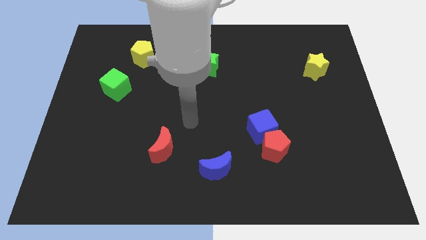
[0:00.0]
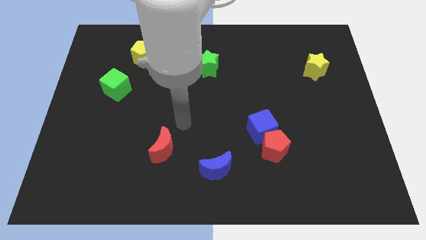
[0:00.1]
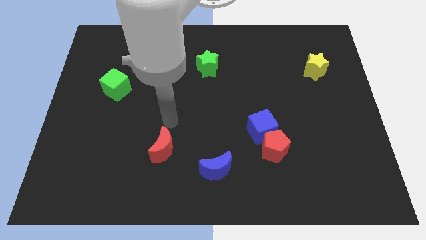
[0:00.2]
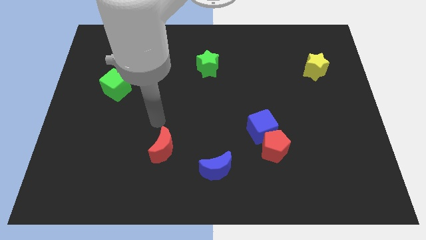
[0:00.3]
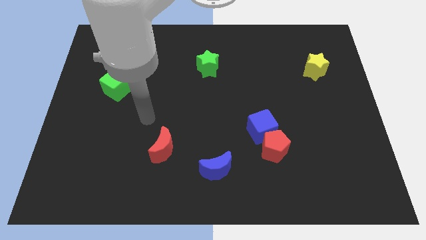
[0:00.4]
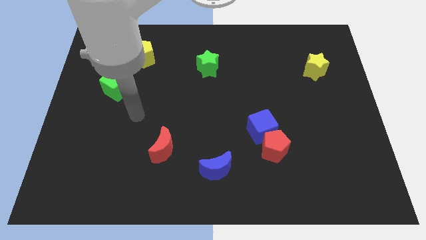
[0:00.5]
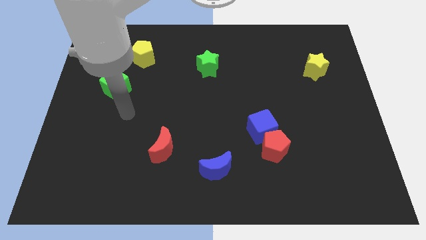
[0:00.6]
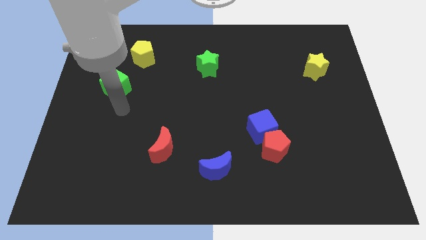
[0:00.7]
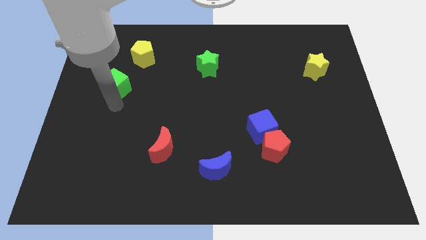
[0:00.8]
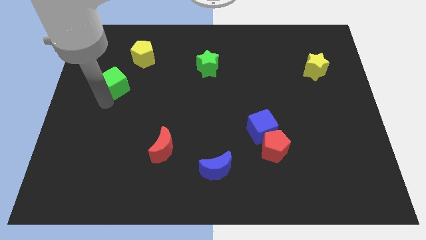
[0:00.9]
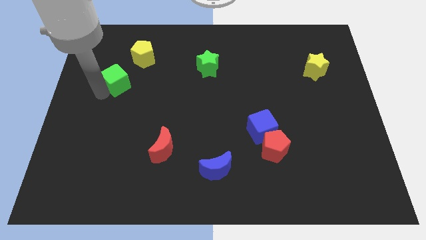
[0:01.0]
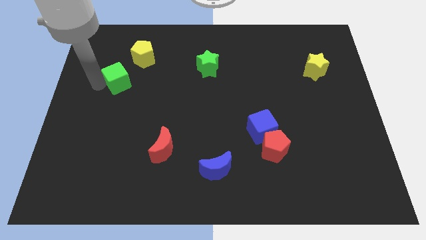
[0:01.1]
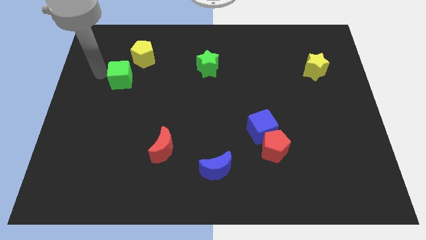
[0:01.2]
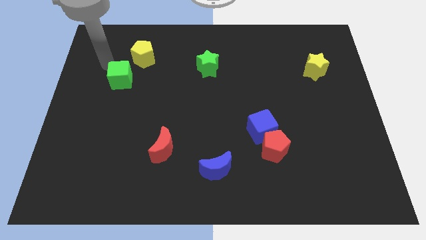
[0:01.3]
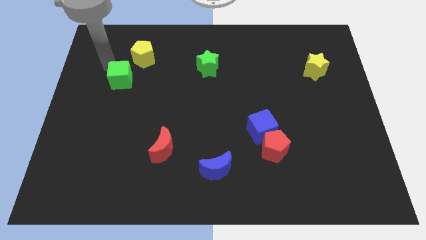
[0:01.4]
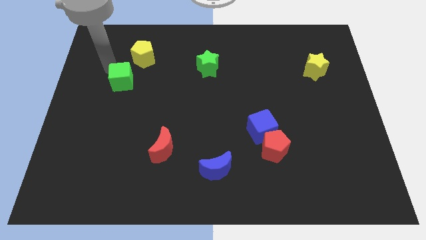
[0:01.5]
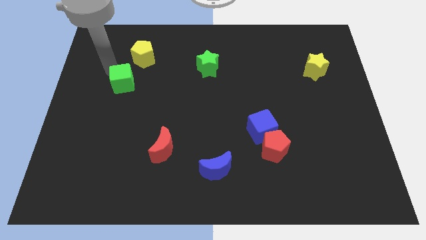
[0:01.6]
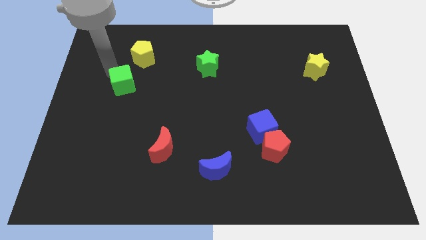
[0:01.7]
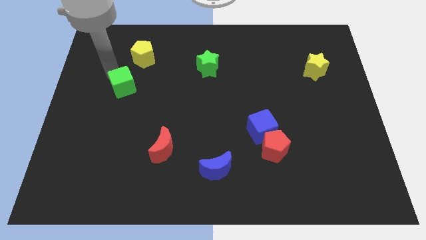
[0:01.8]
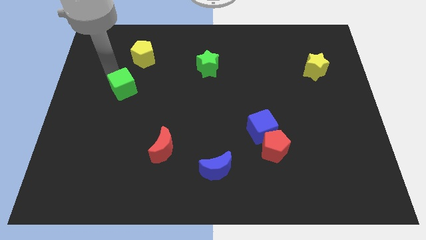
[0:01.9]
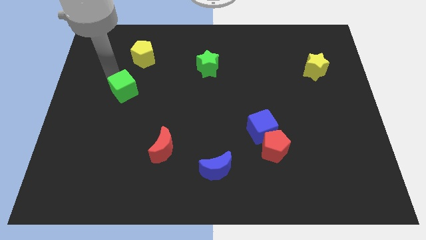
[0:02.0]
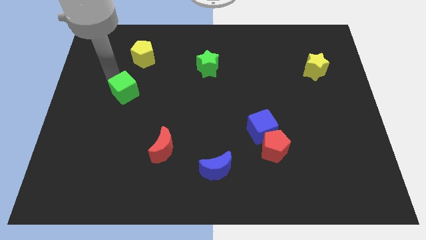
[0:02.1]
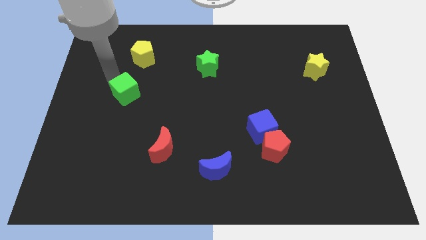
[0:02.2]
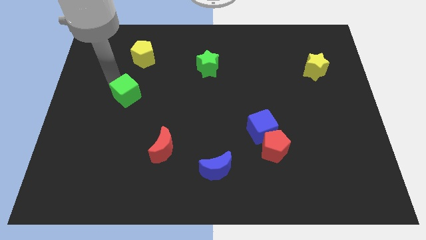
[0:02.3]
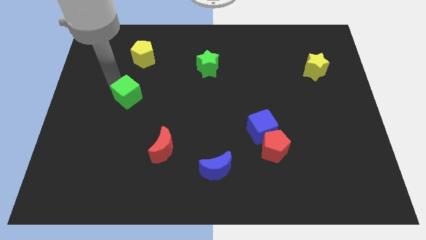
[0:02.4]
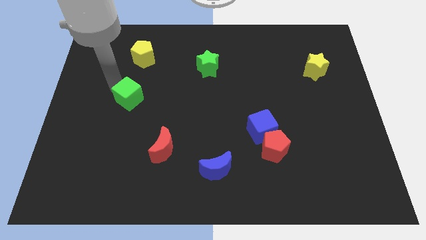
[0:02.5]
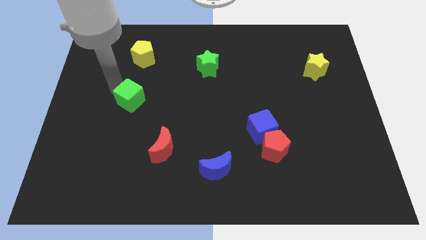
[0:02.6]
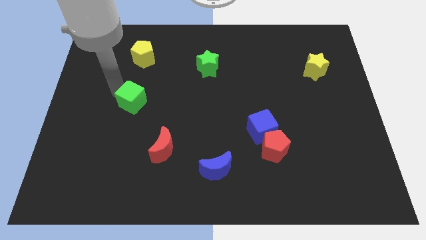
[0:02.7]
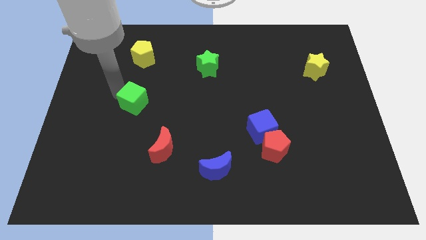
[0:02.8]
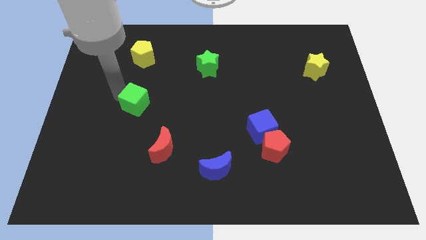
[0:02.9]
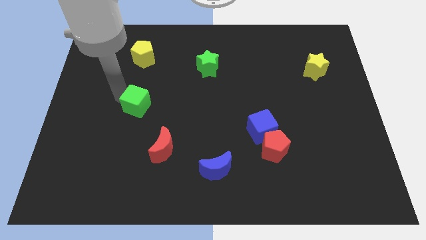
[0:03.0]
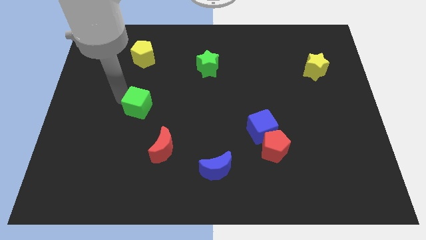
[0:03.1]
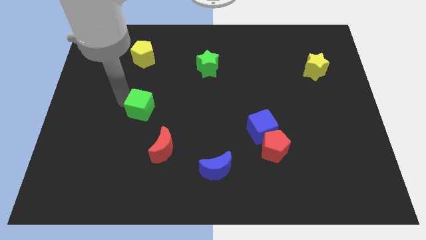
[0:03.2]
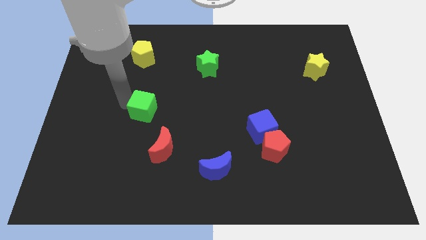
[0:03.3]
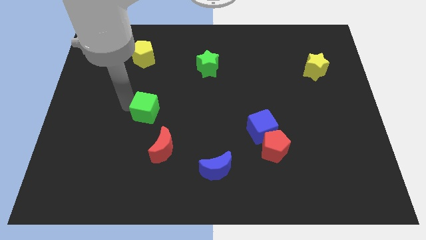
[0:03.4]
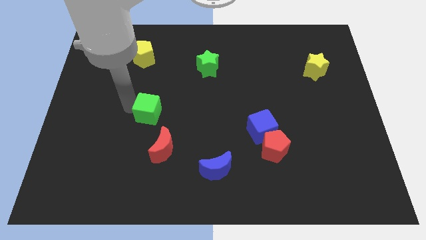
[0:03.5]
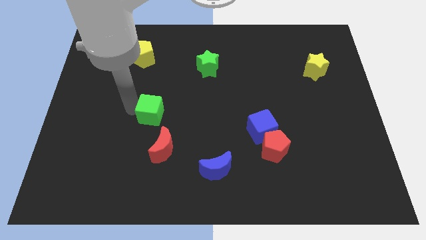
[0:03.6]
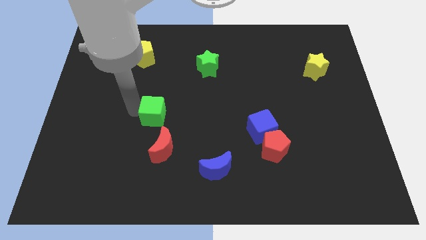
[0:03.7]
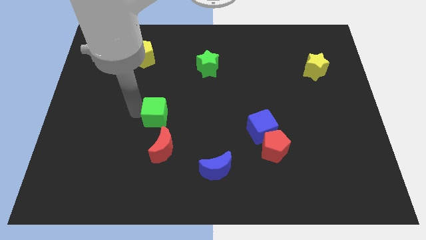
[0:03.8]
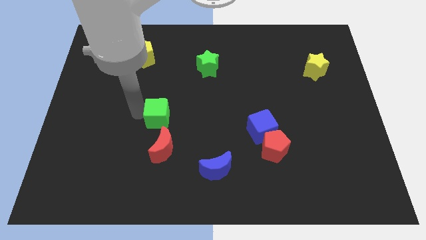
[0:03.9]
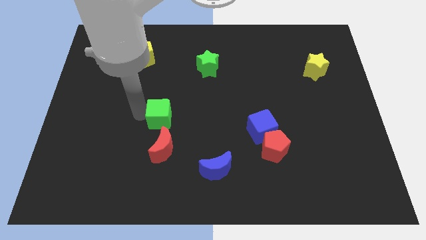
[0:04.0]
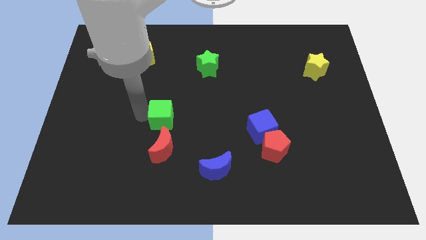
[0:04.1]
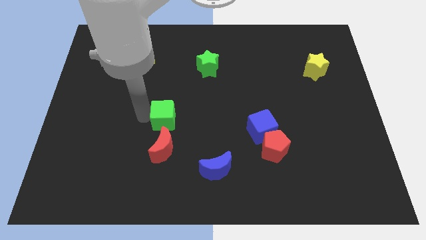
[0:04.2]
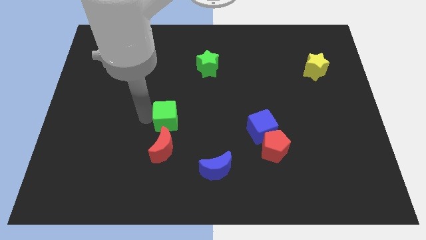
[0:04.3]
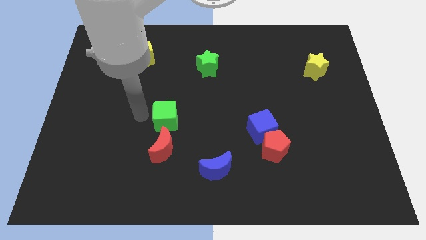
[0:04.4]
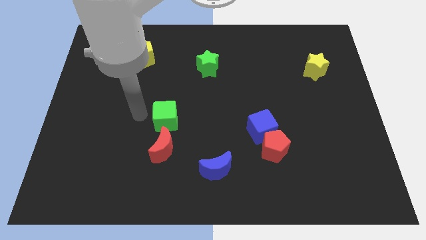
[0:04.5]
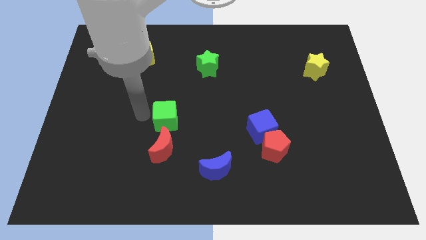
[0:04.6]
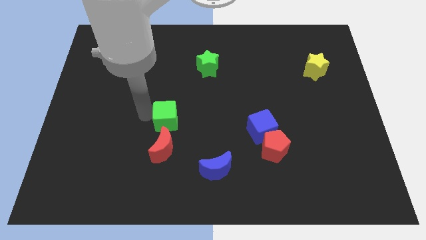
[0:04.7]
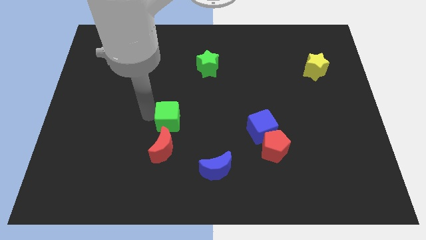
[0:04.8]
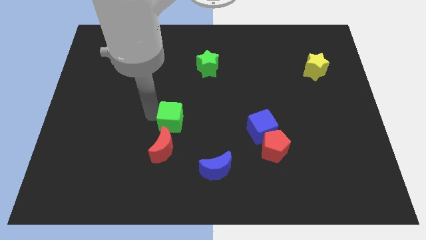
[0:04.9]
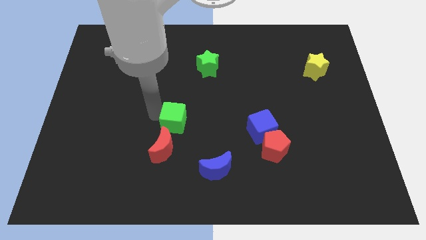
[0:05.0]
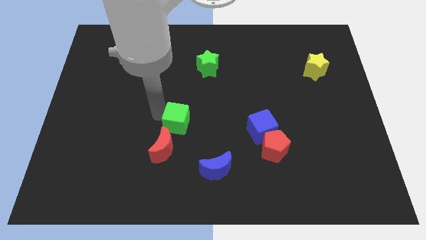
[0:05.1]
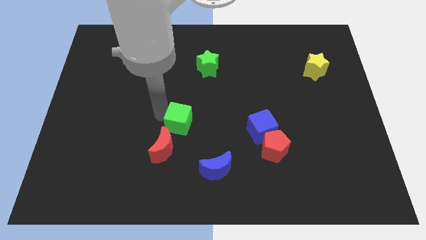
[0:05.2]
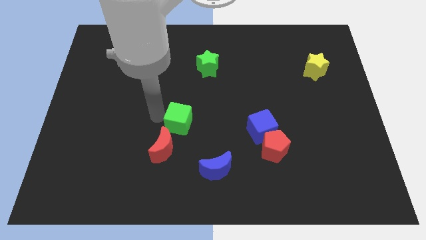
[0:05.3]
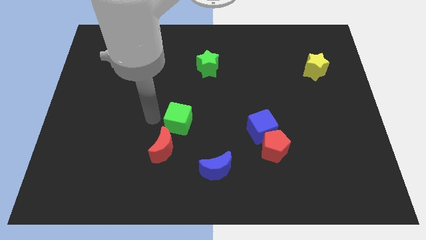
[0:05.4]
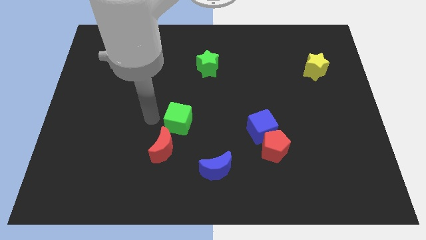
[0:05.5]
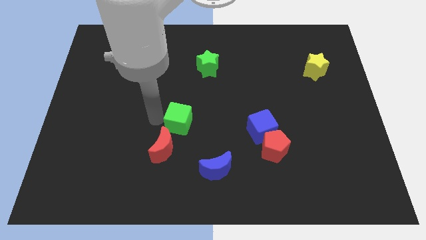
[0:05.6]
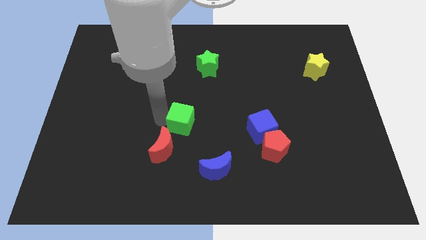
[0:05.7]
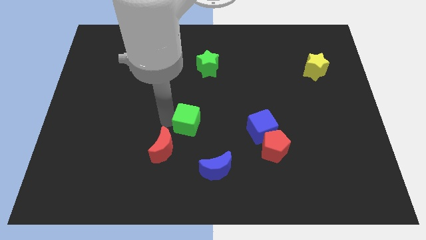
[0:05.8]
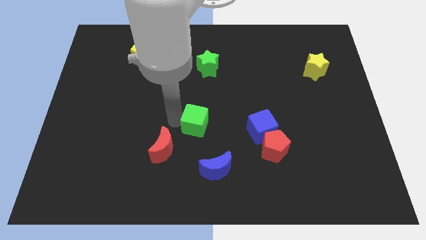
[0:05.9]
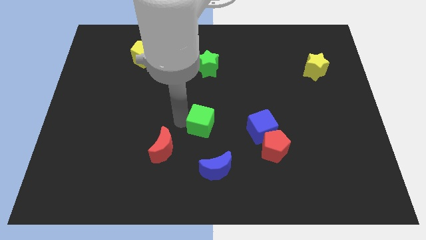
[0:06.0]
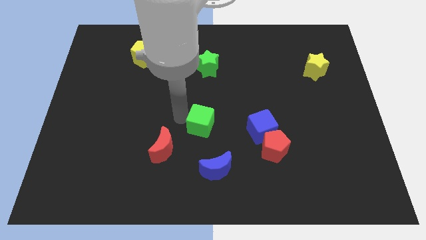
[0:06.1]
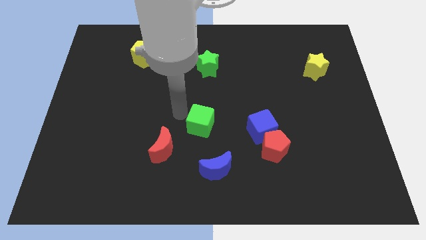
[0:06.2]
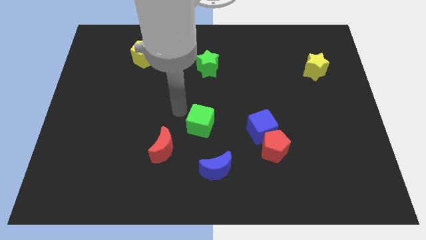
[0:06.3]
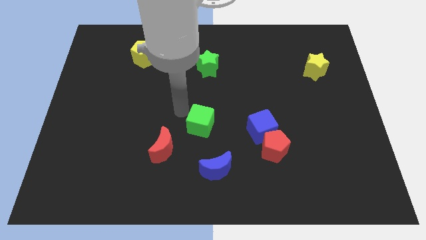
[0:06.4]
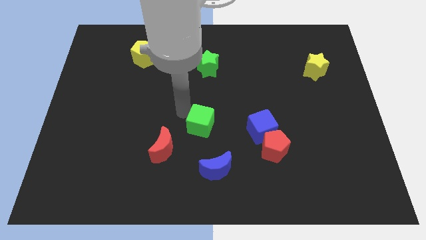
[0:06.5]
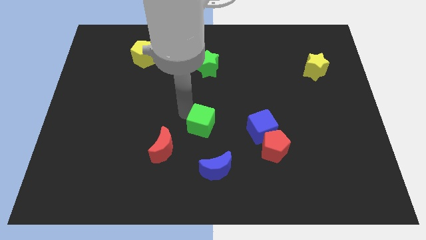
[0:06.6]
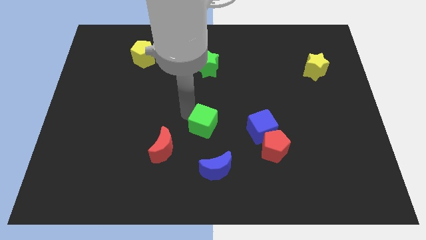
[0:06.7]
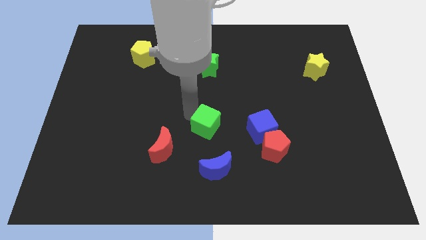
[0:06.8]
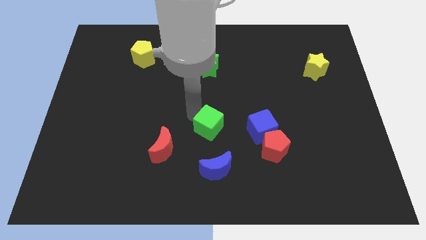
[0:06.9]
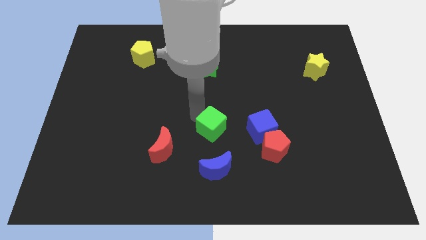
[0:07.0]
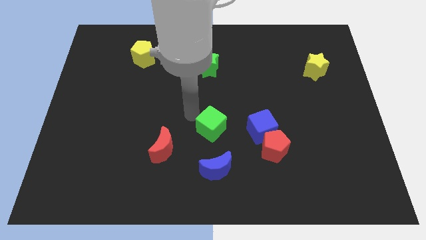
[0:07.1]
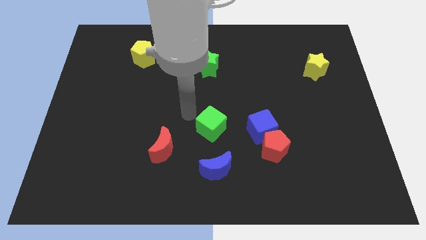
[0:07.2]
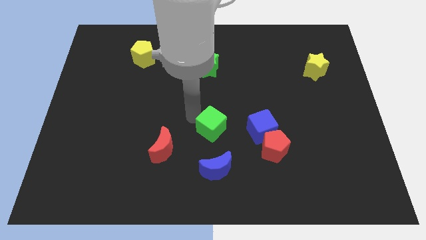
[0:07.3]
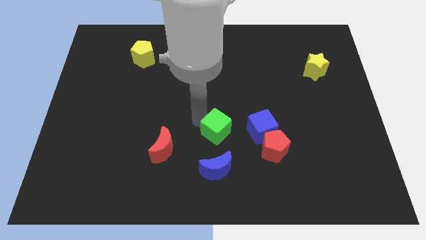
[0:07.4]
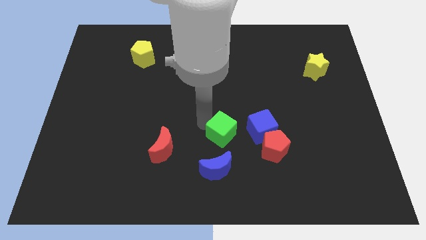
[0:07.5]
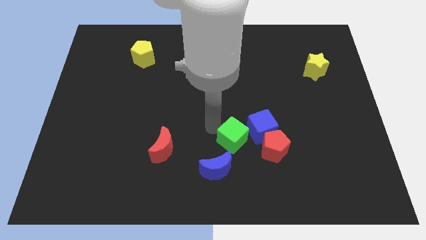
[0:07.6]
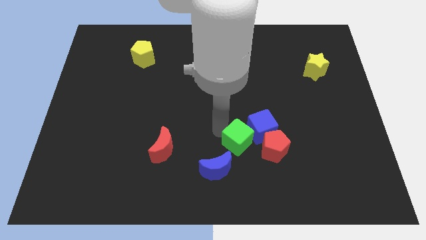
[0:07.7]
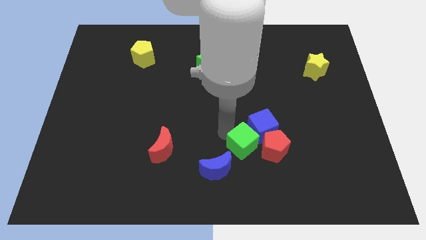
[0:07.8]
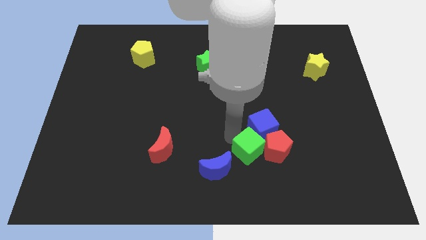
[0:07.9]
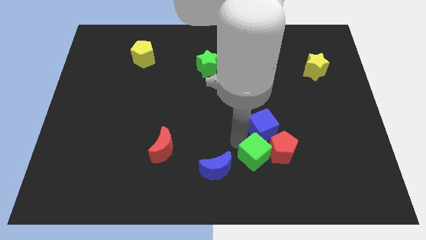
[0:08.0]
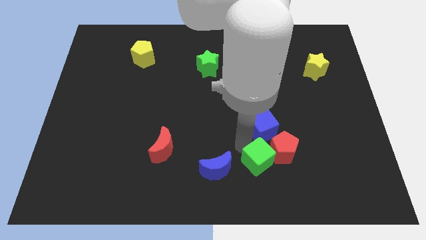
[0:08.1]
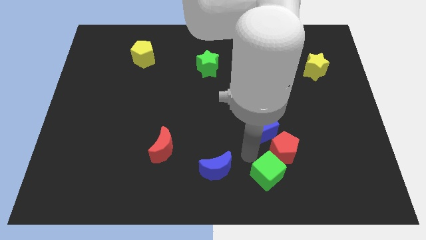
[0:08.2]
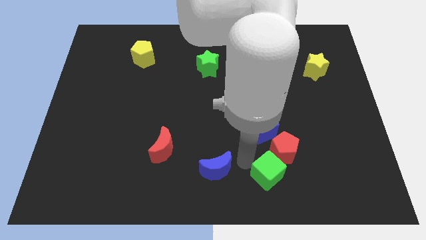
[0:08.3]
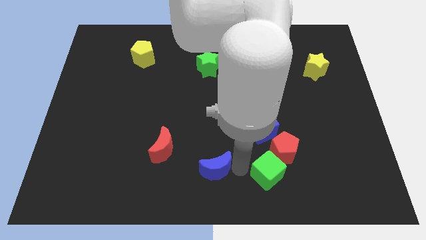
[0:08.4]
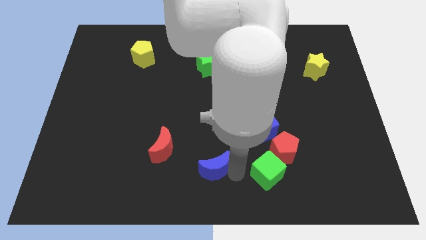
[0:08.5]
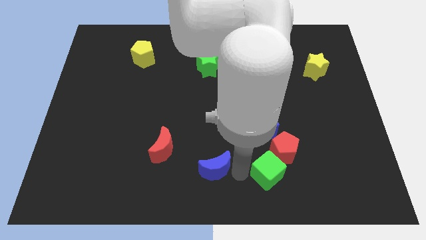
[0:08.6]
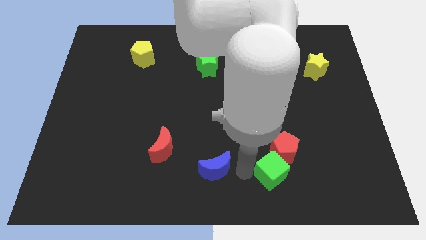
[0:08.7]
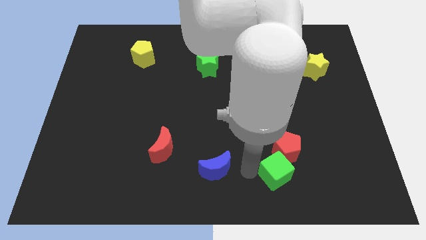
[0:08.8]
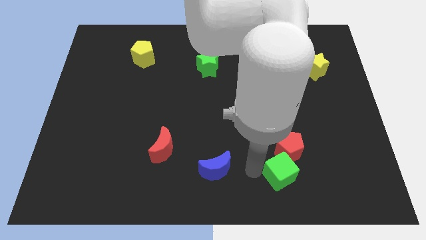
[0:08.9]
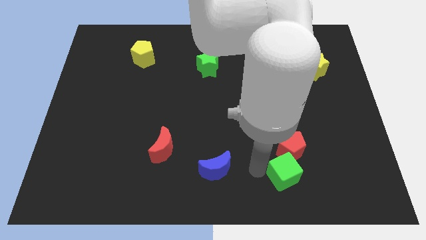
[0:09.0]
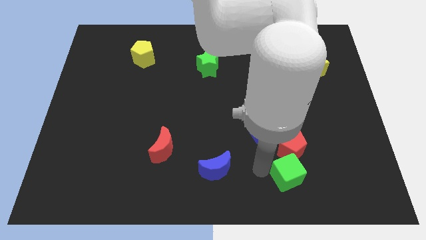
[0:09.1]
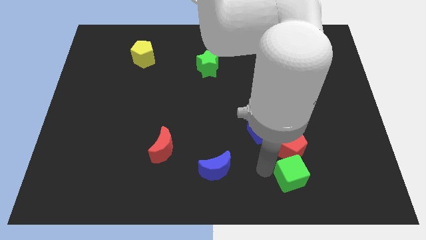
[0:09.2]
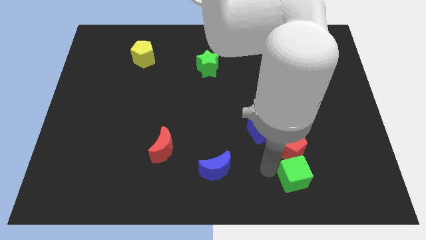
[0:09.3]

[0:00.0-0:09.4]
move the green cube diagonally down and to the right of the red pentagon
